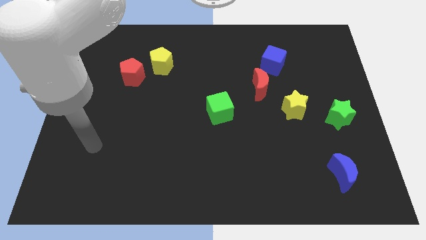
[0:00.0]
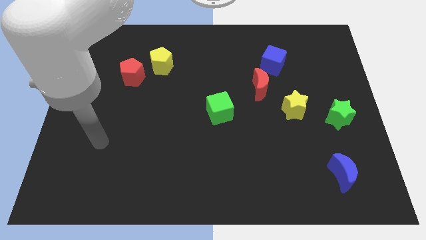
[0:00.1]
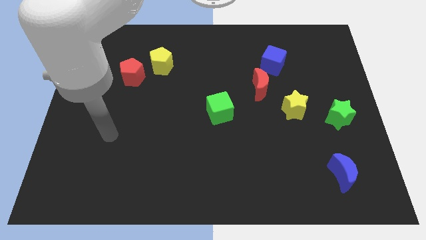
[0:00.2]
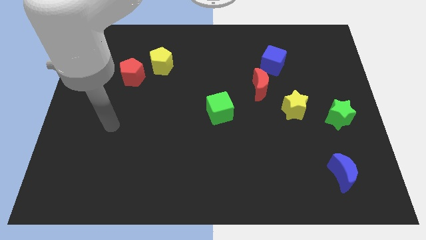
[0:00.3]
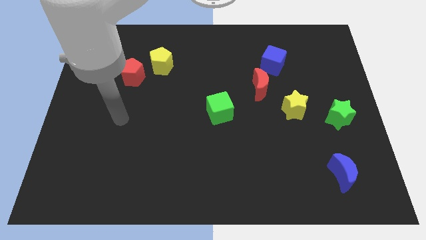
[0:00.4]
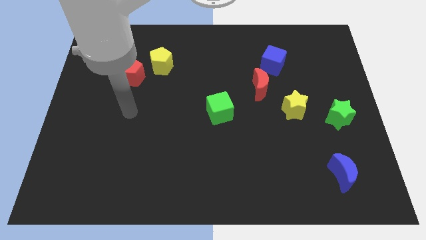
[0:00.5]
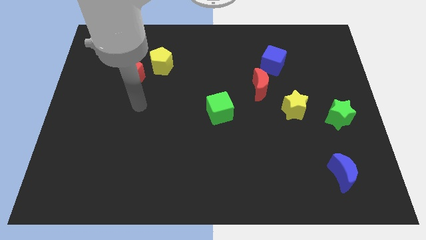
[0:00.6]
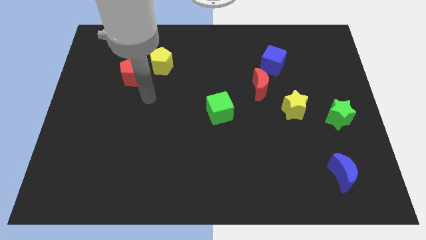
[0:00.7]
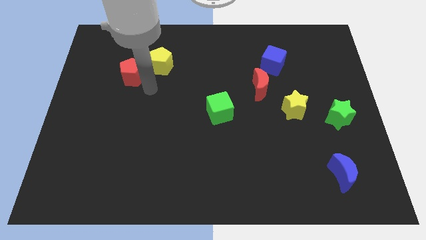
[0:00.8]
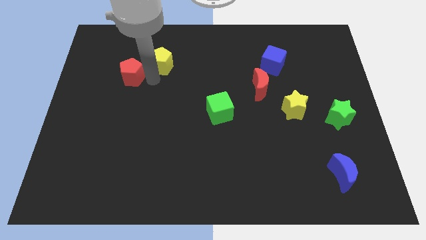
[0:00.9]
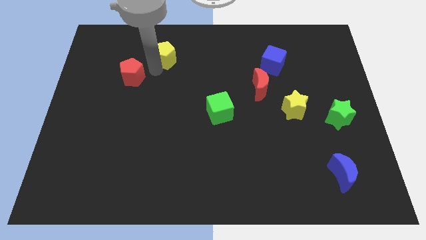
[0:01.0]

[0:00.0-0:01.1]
pull the red pentagon apart from the yellow pentagon

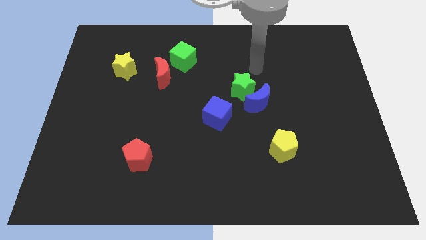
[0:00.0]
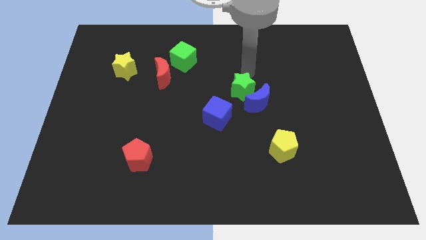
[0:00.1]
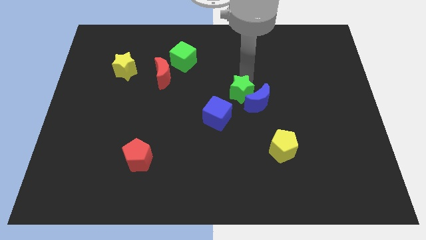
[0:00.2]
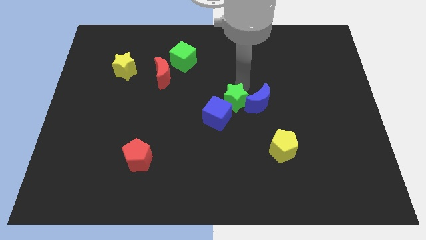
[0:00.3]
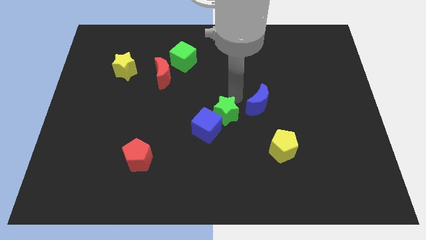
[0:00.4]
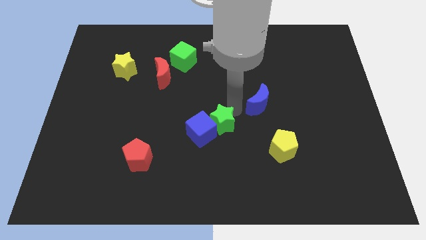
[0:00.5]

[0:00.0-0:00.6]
move the blue moon away from the green star

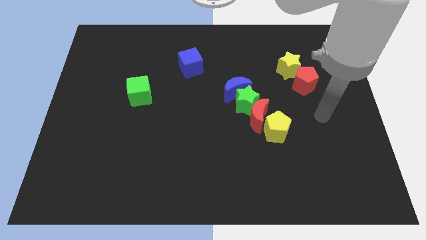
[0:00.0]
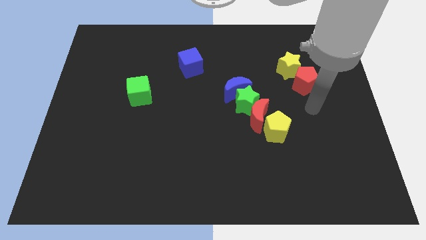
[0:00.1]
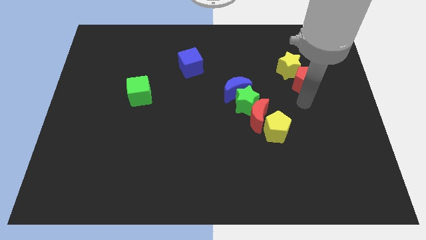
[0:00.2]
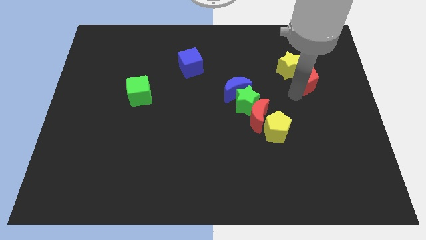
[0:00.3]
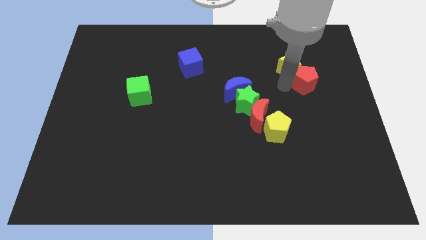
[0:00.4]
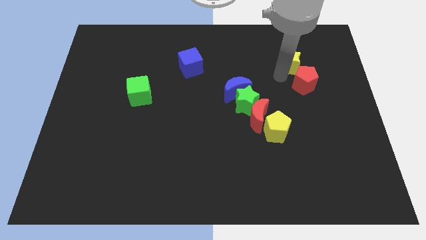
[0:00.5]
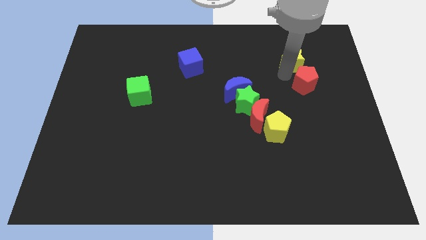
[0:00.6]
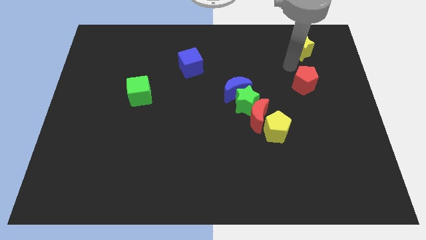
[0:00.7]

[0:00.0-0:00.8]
separate the red pentagon from the yellow star

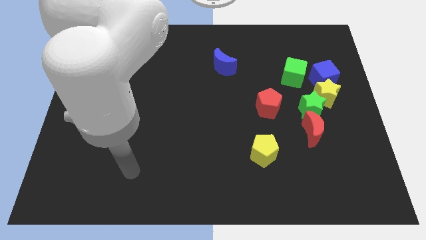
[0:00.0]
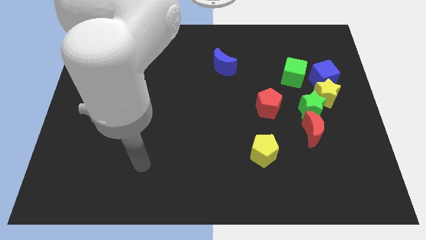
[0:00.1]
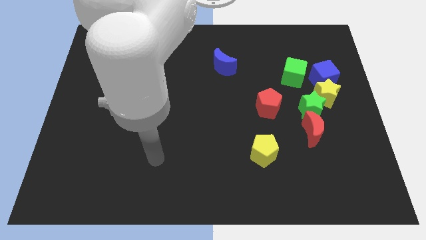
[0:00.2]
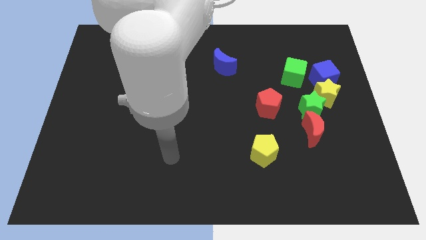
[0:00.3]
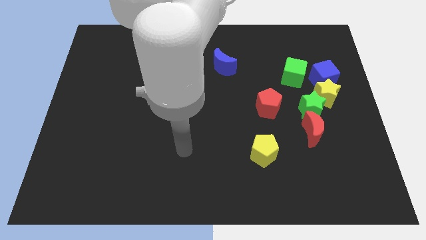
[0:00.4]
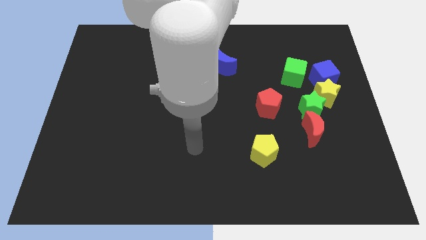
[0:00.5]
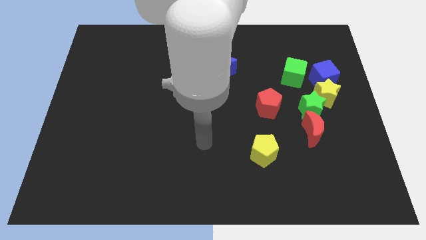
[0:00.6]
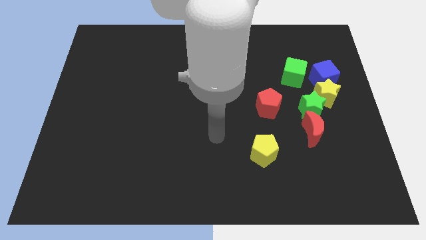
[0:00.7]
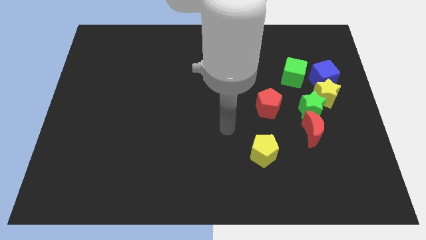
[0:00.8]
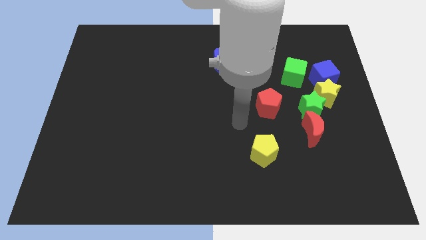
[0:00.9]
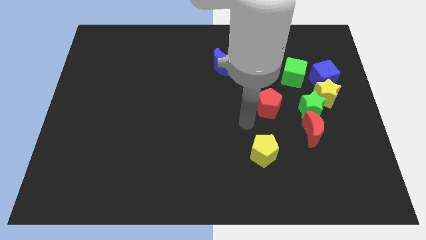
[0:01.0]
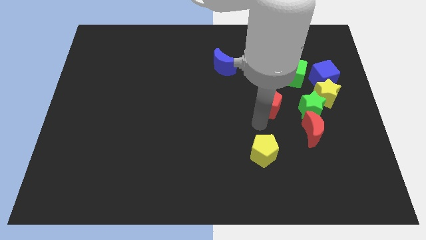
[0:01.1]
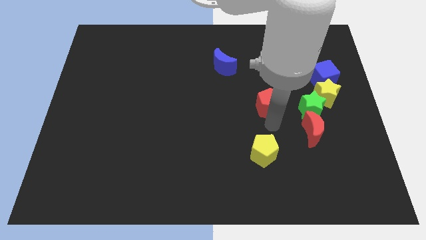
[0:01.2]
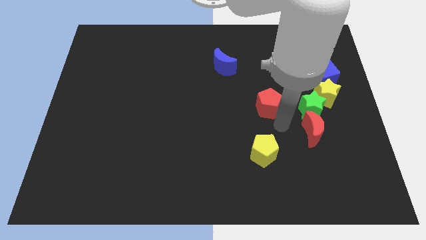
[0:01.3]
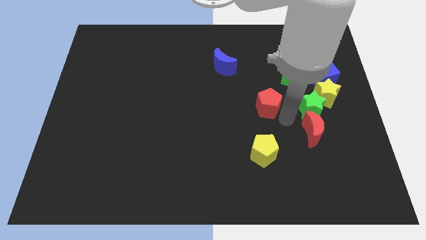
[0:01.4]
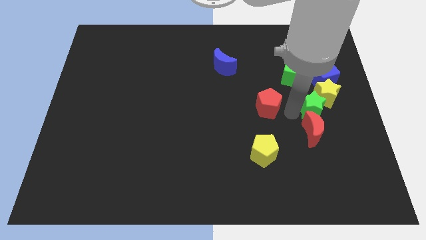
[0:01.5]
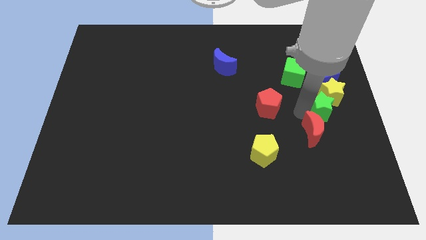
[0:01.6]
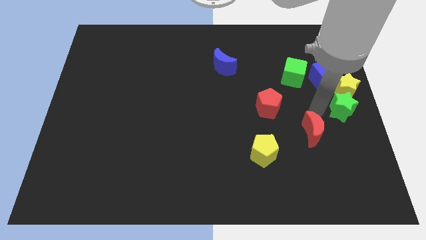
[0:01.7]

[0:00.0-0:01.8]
pull the red moon apart from the green star

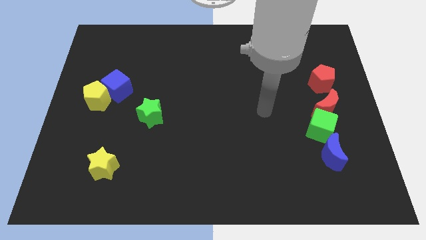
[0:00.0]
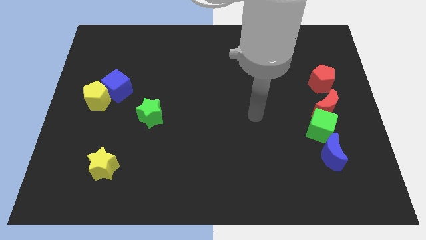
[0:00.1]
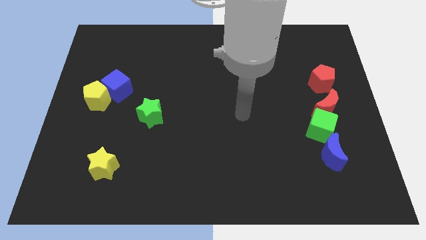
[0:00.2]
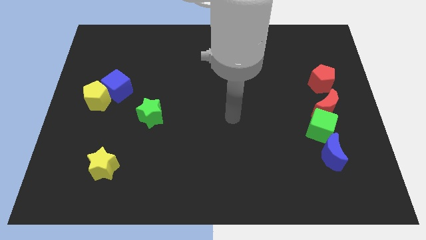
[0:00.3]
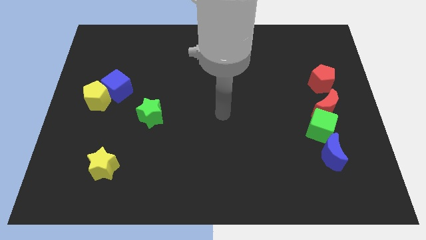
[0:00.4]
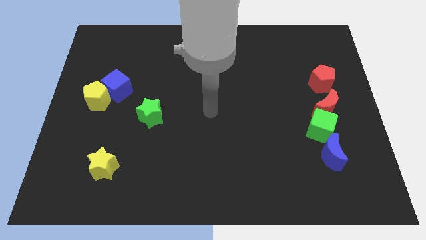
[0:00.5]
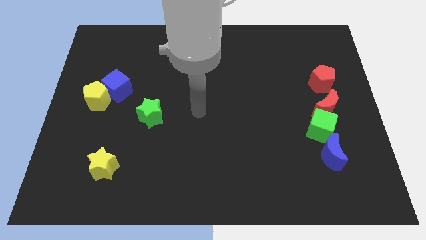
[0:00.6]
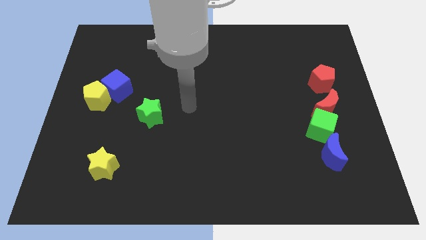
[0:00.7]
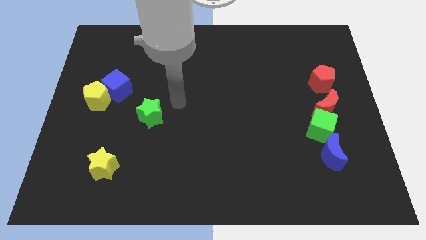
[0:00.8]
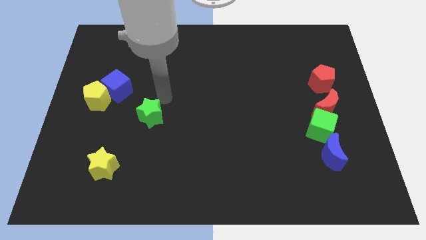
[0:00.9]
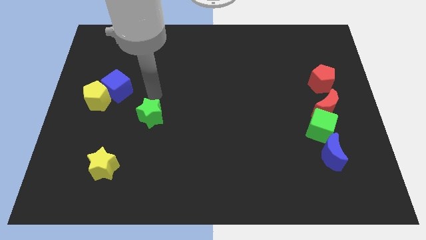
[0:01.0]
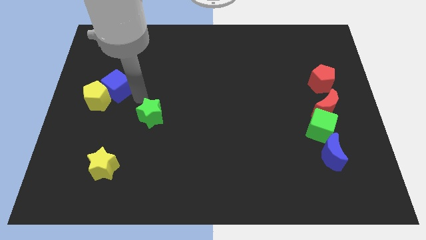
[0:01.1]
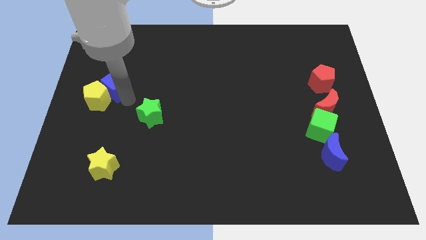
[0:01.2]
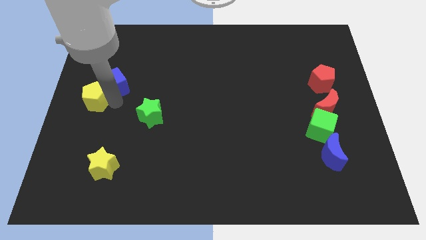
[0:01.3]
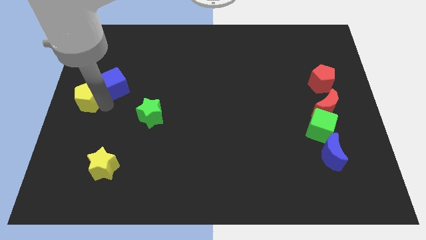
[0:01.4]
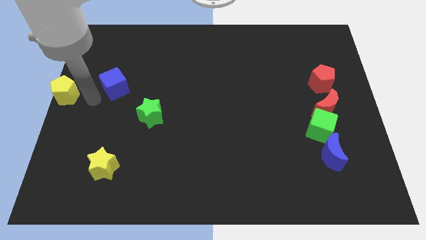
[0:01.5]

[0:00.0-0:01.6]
separate the blue cube from the yellow pentagon

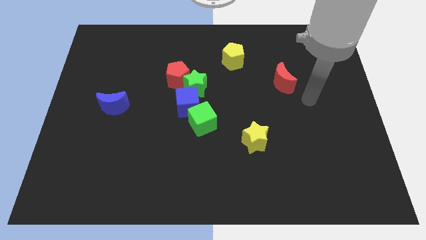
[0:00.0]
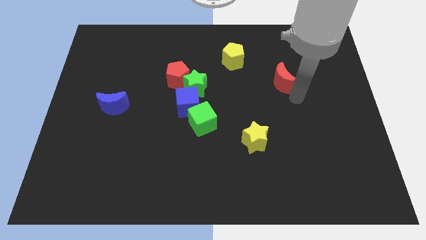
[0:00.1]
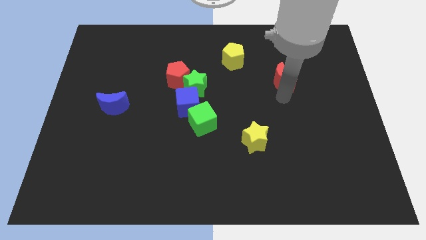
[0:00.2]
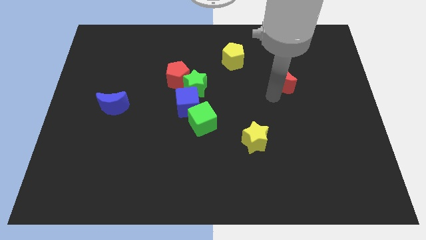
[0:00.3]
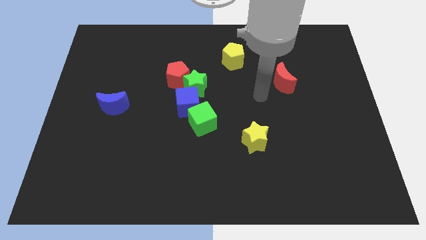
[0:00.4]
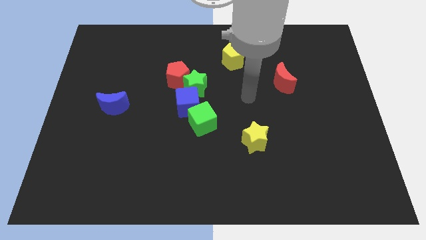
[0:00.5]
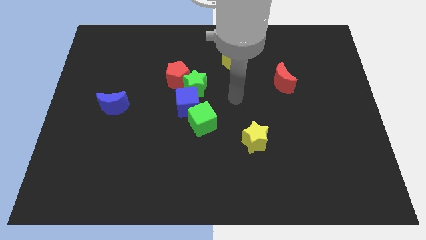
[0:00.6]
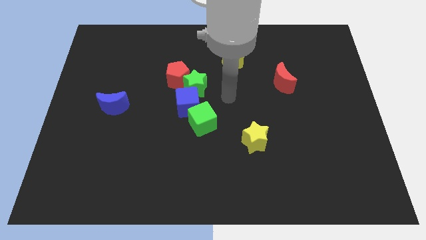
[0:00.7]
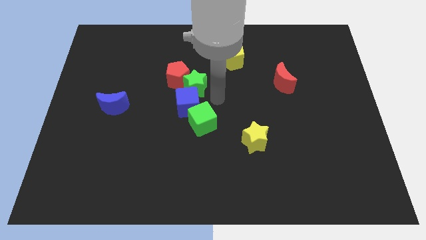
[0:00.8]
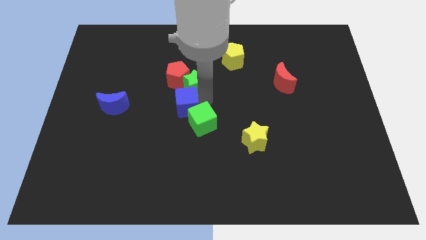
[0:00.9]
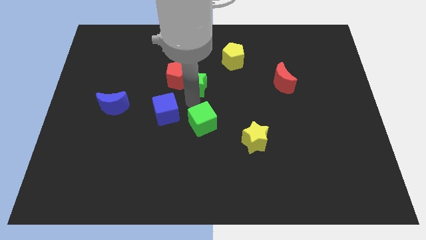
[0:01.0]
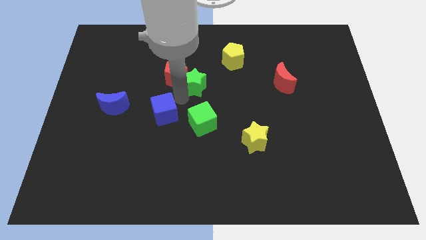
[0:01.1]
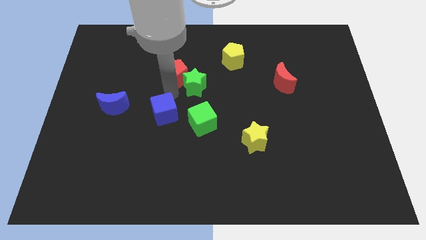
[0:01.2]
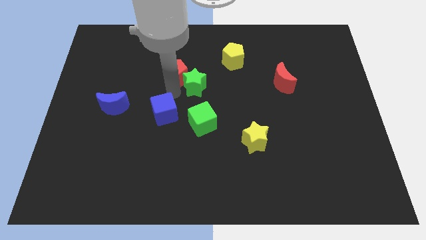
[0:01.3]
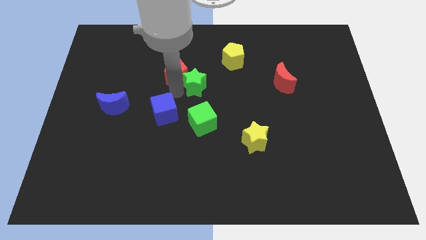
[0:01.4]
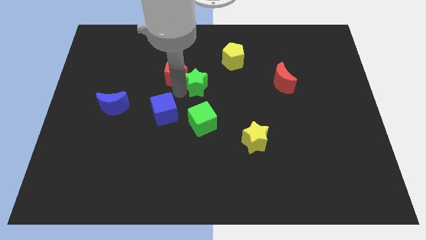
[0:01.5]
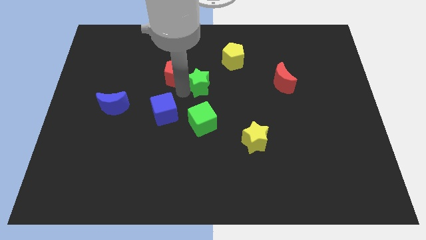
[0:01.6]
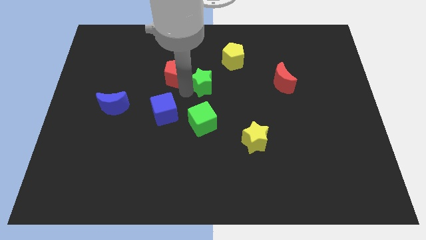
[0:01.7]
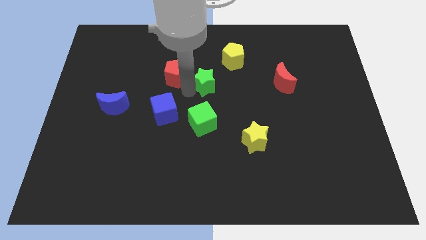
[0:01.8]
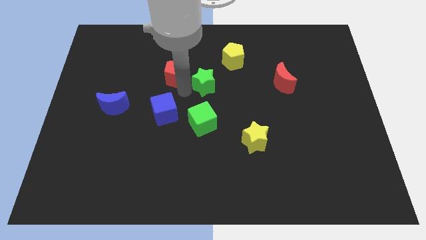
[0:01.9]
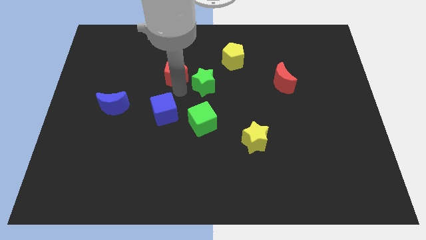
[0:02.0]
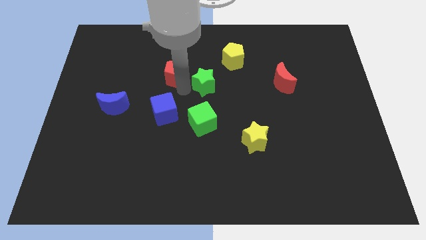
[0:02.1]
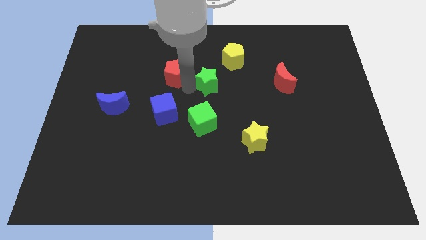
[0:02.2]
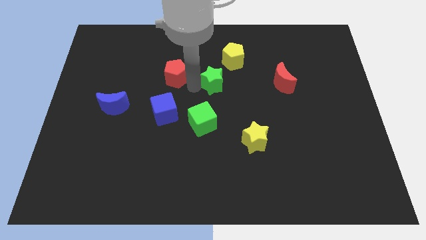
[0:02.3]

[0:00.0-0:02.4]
move the green star away from the red pentagon and blue cube

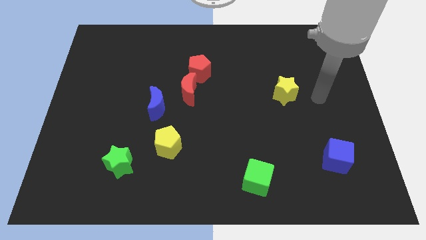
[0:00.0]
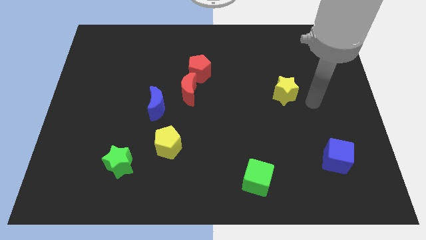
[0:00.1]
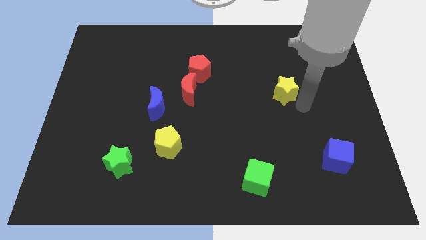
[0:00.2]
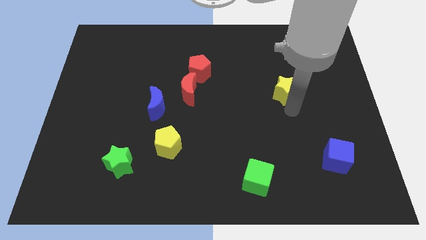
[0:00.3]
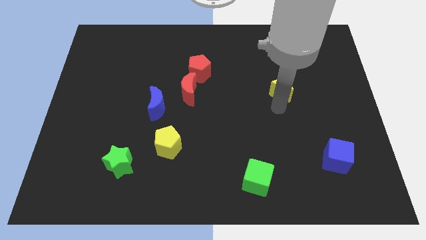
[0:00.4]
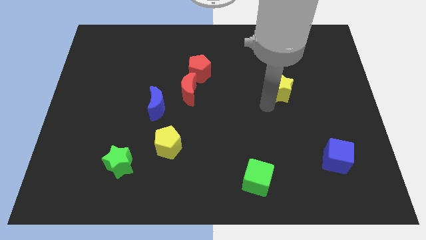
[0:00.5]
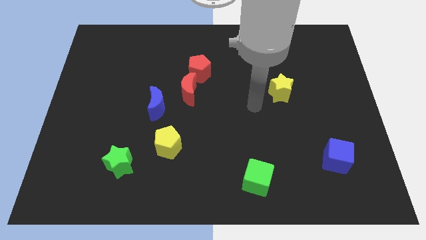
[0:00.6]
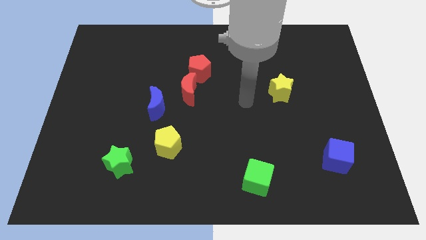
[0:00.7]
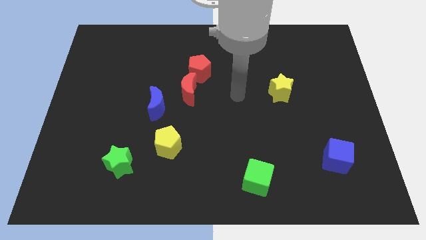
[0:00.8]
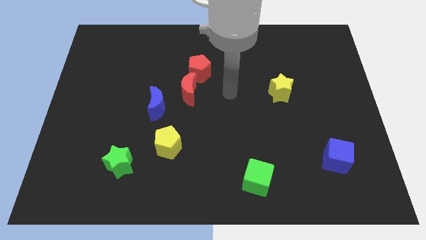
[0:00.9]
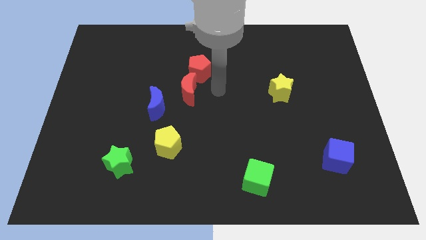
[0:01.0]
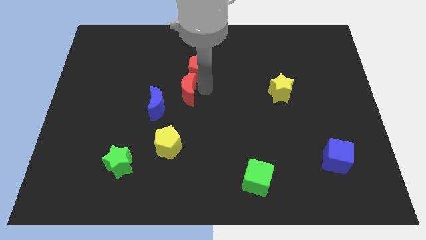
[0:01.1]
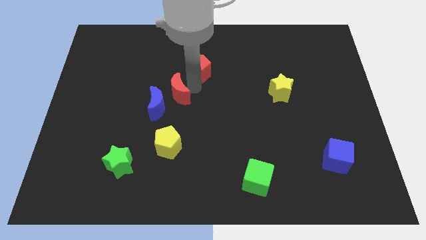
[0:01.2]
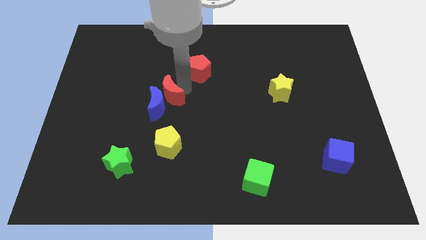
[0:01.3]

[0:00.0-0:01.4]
move the red pentagon away from the red moon
